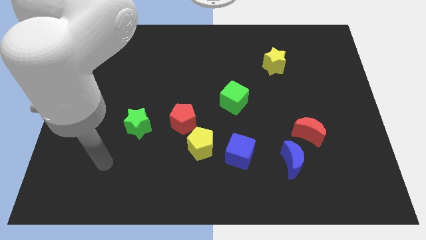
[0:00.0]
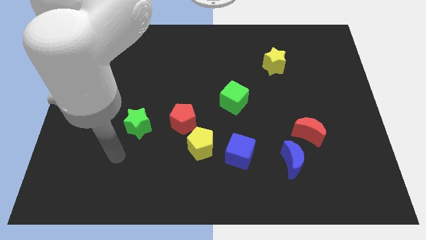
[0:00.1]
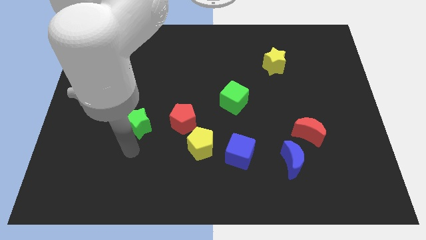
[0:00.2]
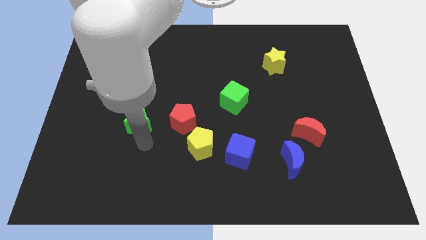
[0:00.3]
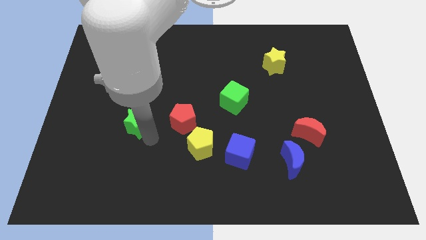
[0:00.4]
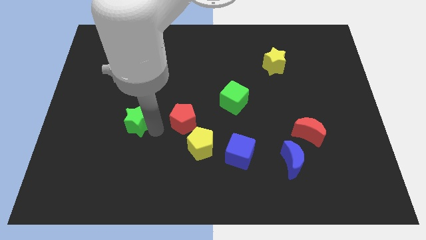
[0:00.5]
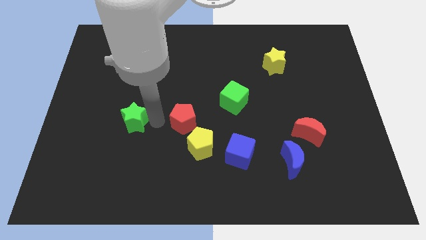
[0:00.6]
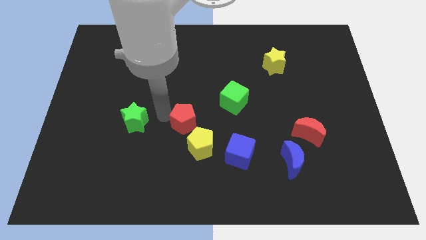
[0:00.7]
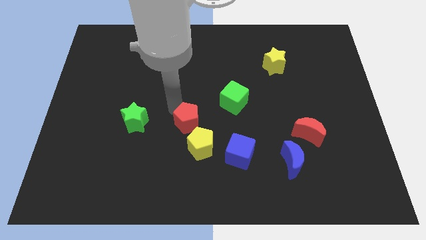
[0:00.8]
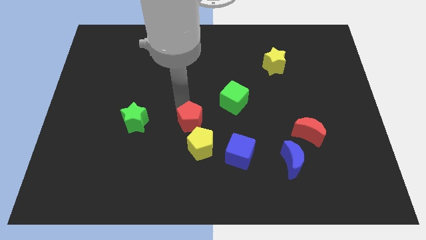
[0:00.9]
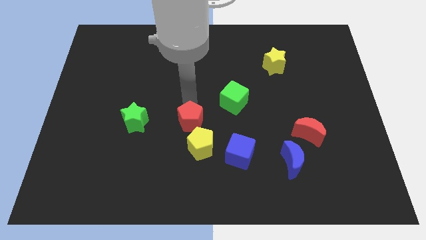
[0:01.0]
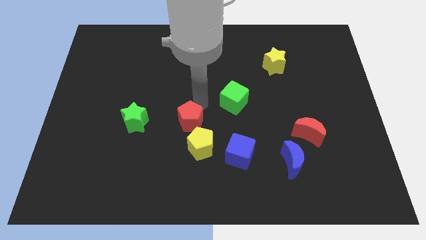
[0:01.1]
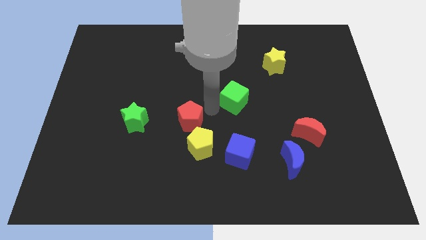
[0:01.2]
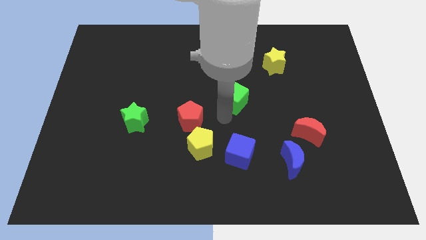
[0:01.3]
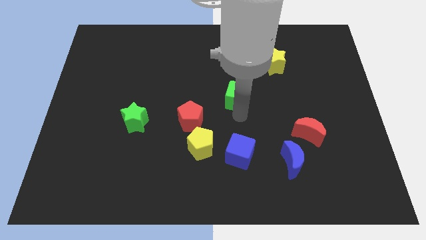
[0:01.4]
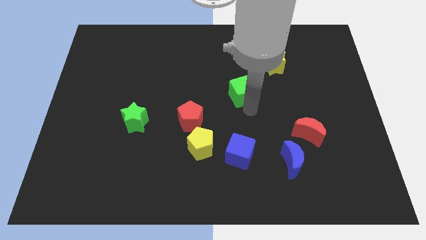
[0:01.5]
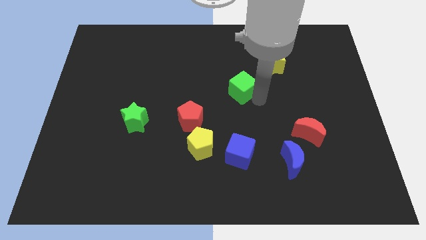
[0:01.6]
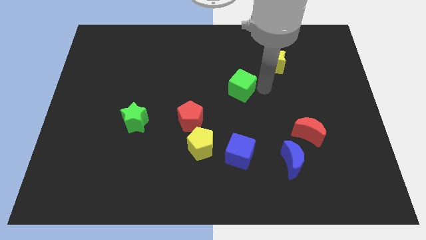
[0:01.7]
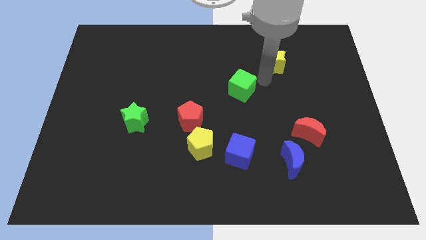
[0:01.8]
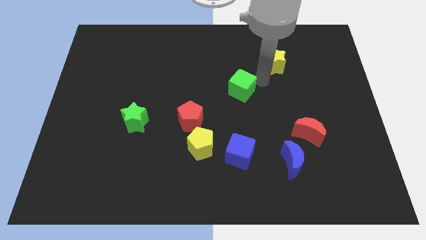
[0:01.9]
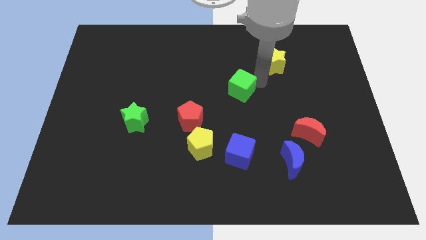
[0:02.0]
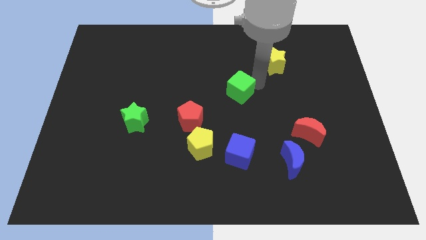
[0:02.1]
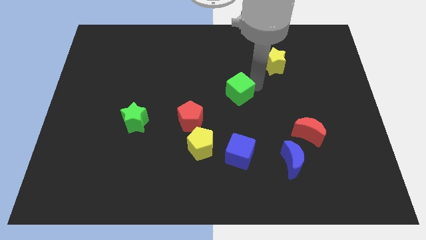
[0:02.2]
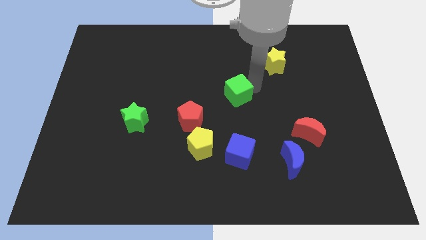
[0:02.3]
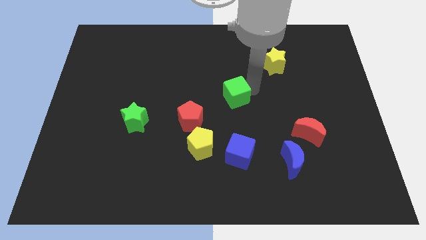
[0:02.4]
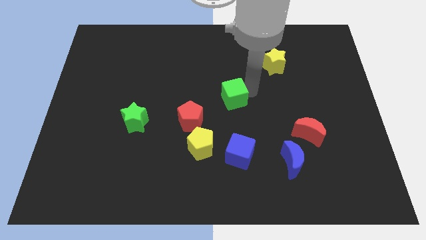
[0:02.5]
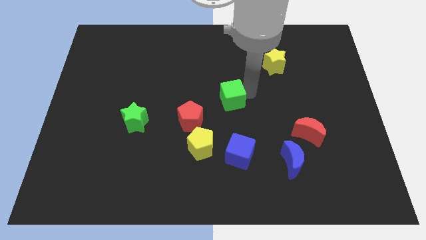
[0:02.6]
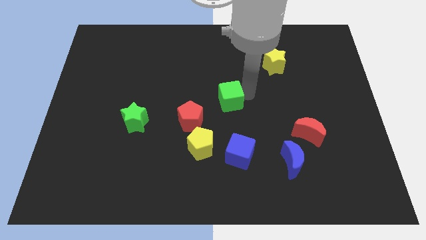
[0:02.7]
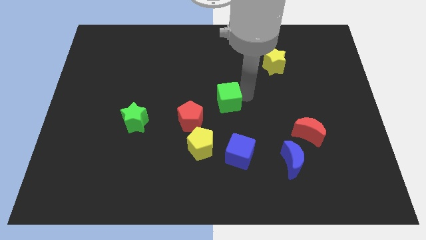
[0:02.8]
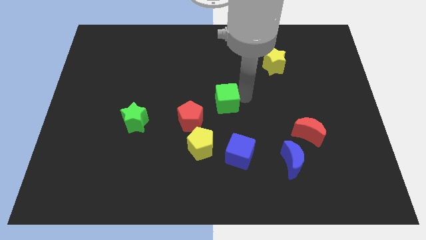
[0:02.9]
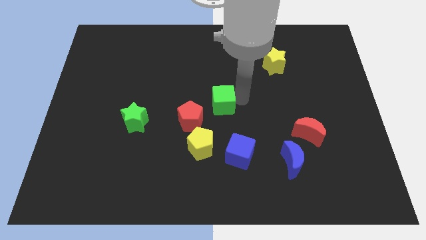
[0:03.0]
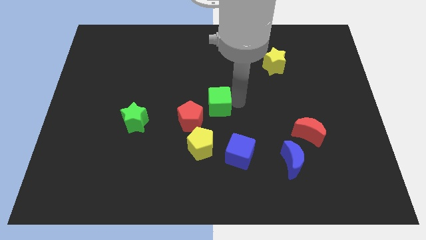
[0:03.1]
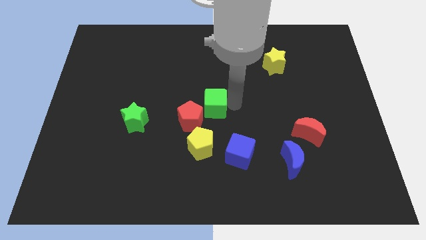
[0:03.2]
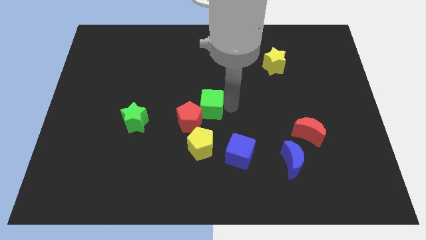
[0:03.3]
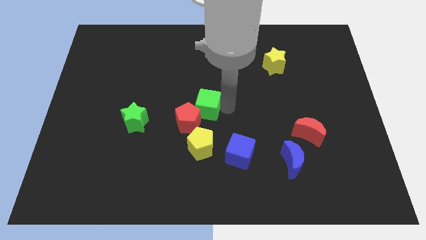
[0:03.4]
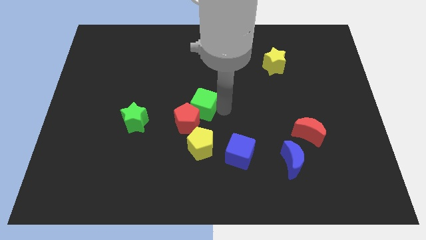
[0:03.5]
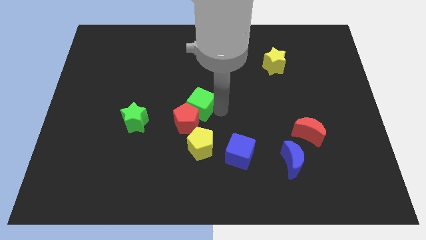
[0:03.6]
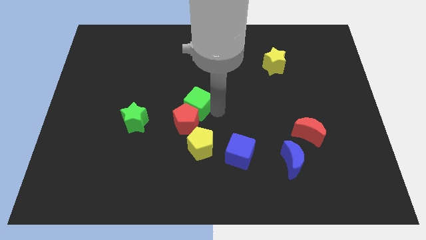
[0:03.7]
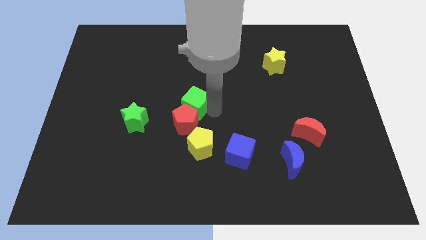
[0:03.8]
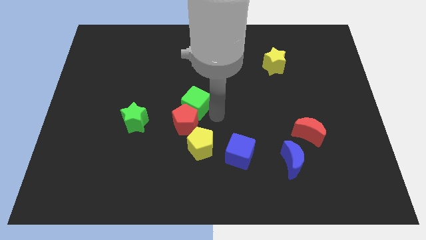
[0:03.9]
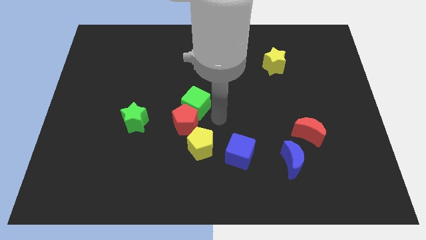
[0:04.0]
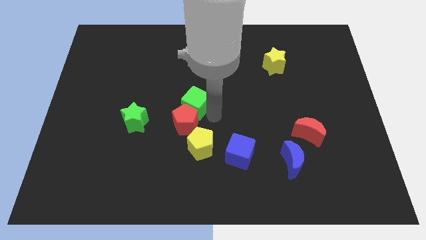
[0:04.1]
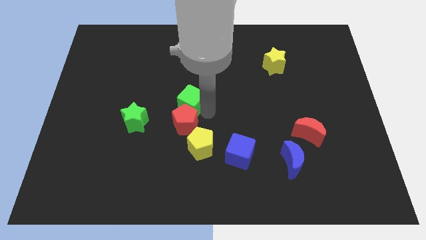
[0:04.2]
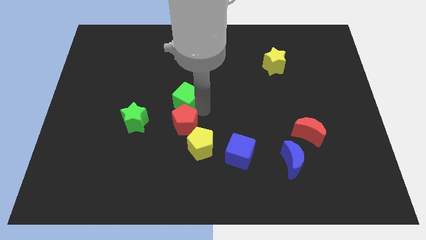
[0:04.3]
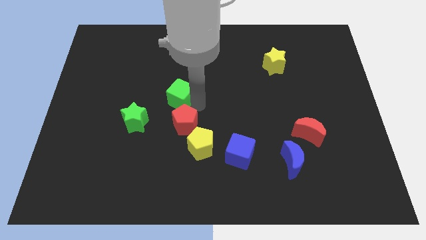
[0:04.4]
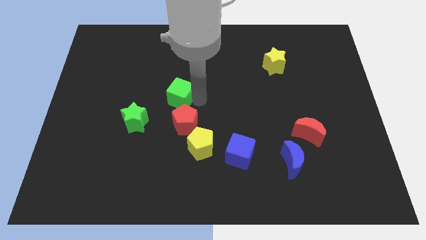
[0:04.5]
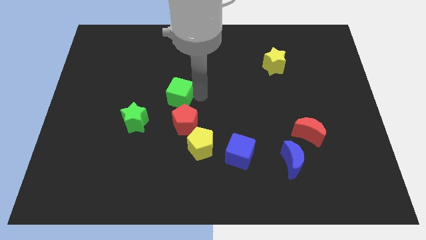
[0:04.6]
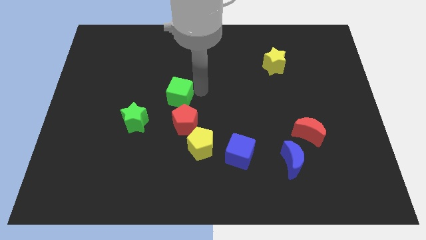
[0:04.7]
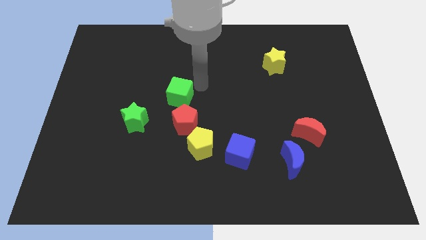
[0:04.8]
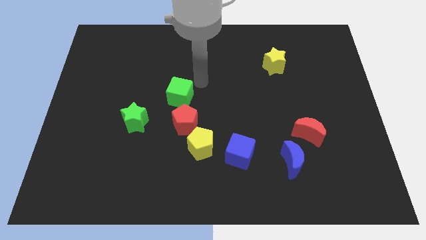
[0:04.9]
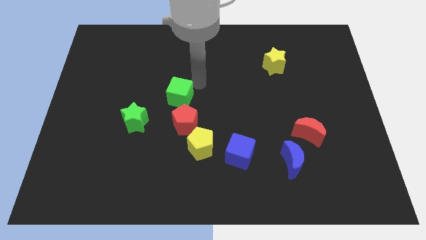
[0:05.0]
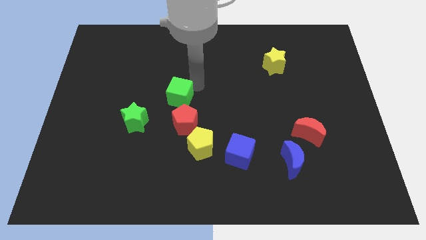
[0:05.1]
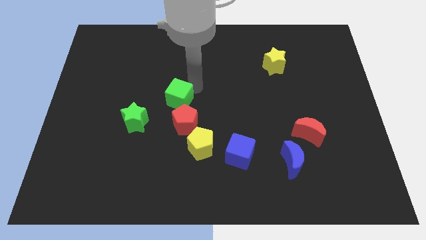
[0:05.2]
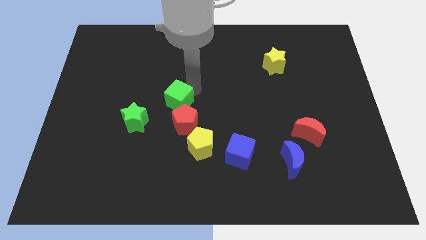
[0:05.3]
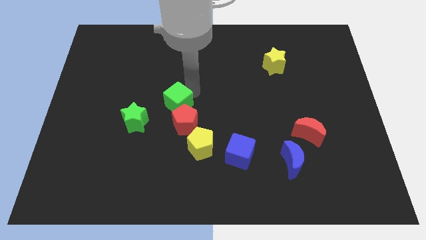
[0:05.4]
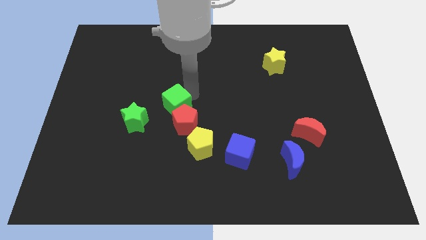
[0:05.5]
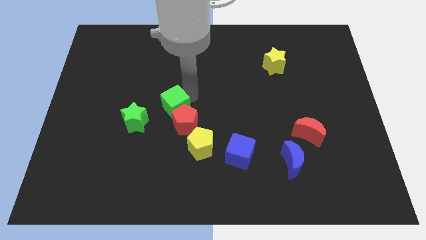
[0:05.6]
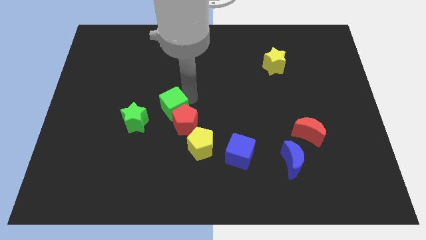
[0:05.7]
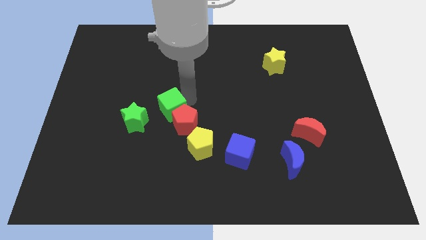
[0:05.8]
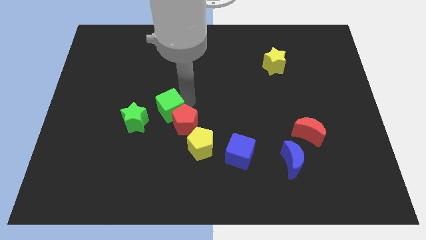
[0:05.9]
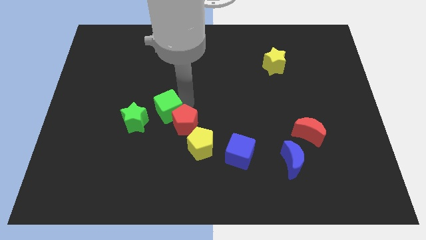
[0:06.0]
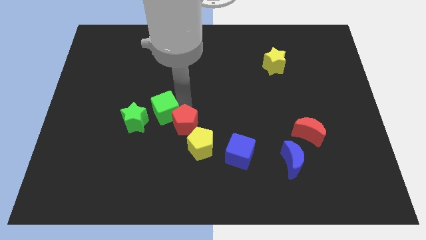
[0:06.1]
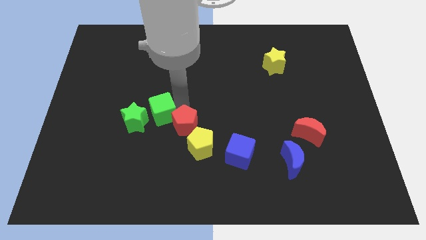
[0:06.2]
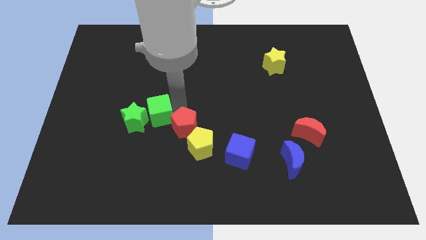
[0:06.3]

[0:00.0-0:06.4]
slide the green cube to the green star
